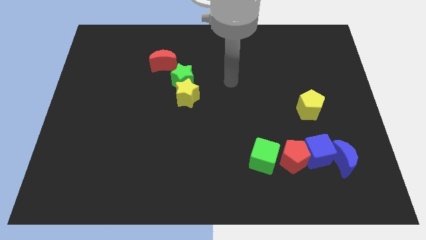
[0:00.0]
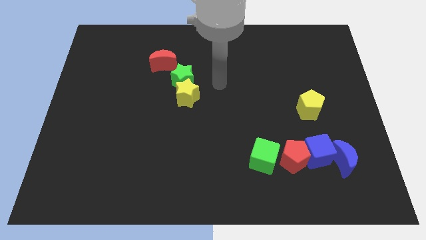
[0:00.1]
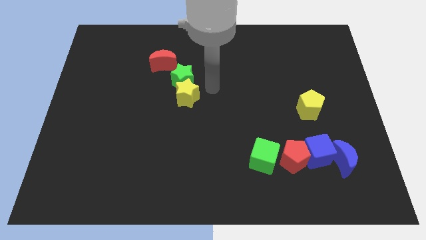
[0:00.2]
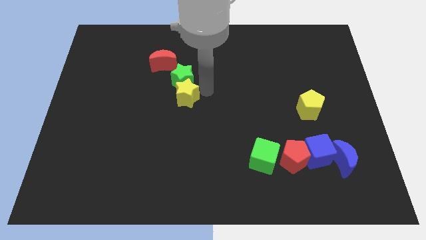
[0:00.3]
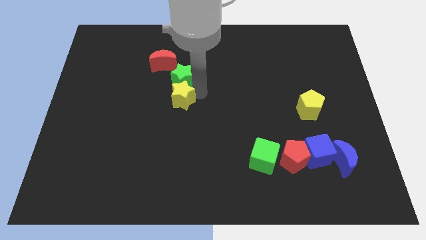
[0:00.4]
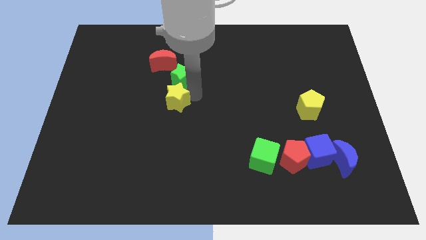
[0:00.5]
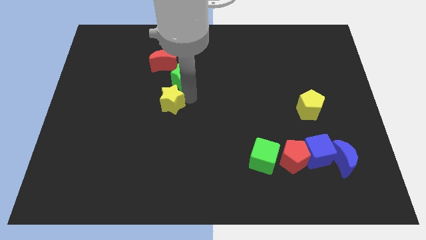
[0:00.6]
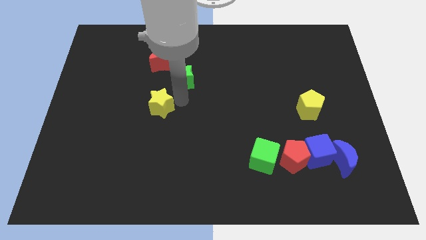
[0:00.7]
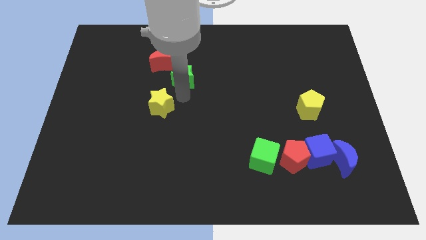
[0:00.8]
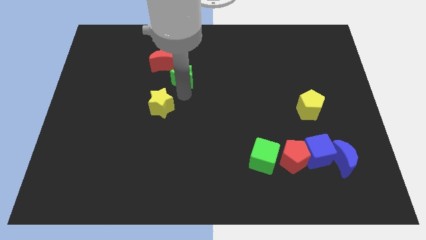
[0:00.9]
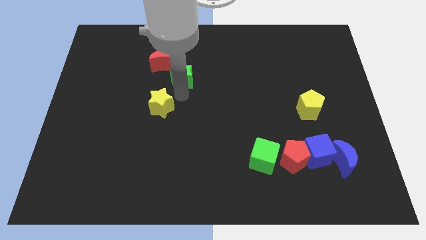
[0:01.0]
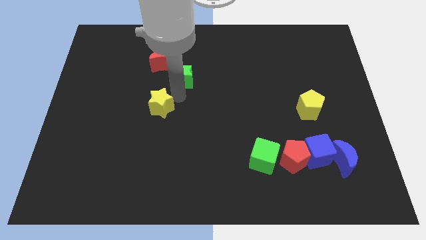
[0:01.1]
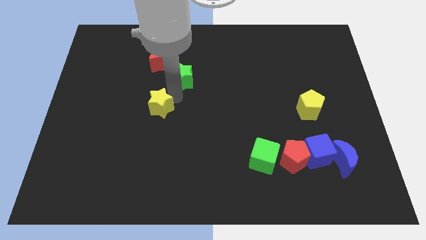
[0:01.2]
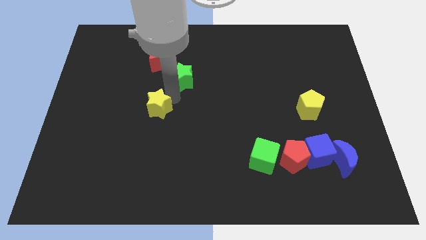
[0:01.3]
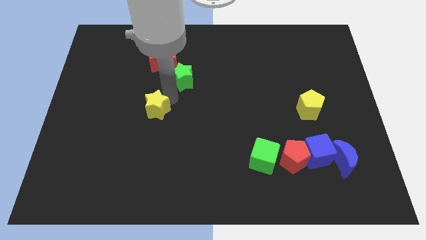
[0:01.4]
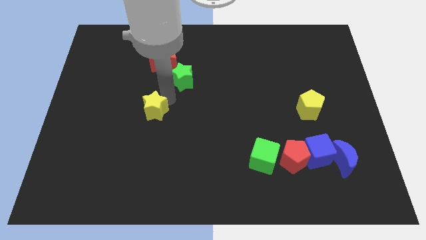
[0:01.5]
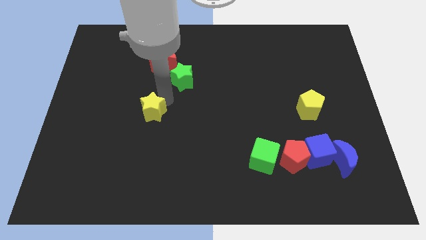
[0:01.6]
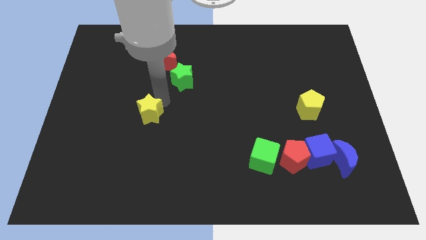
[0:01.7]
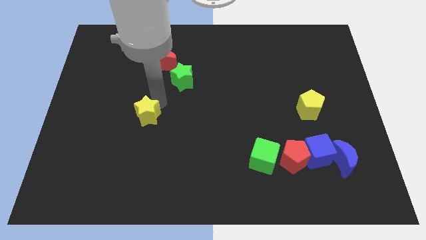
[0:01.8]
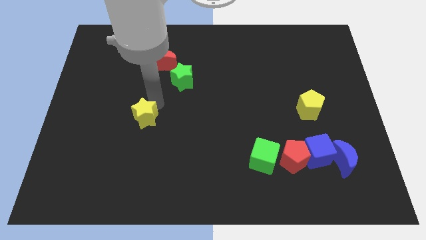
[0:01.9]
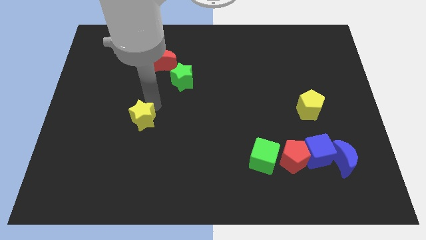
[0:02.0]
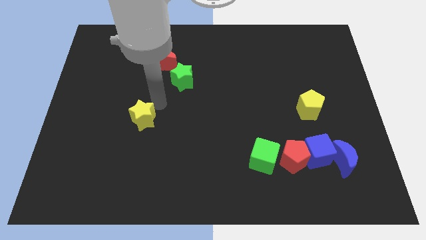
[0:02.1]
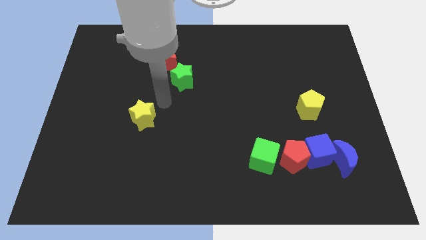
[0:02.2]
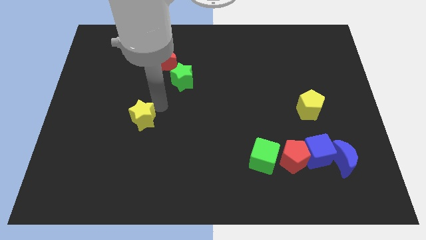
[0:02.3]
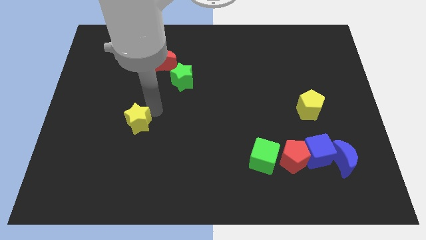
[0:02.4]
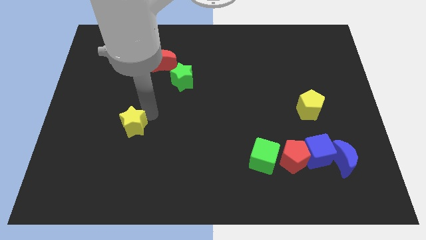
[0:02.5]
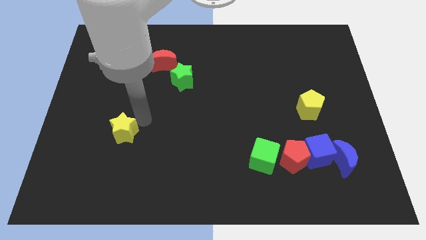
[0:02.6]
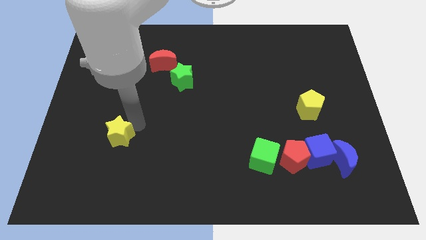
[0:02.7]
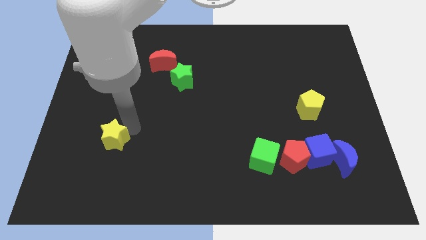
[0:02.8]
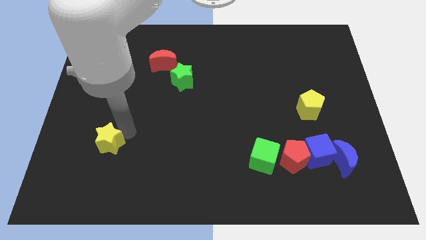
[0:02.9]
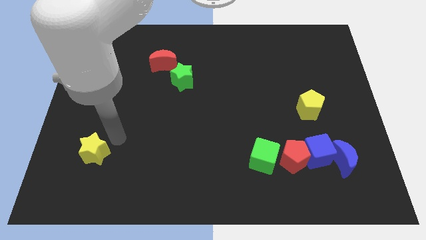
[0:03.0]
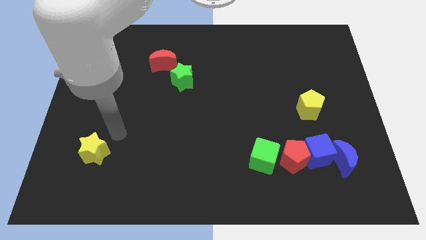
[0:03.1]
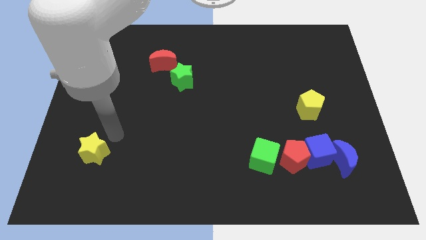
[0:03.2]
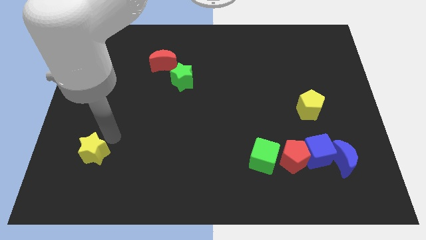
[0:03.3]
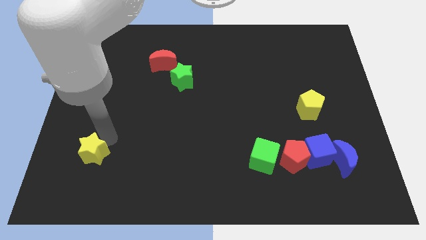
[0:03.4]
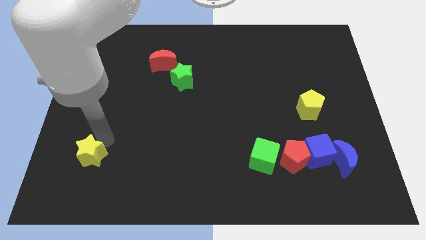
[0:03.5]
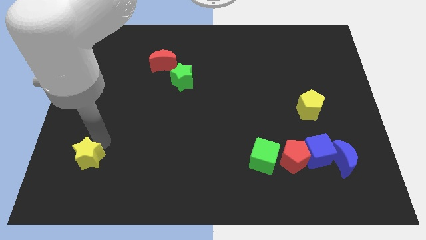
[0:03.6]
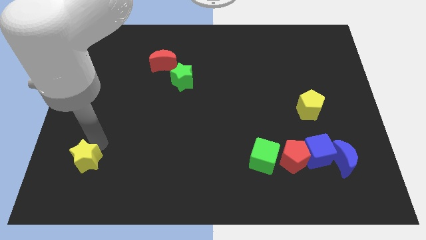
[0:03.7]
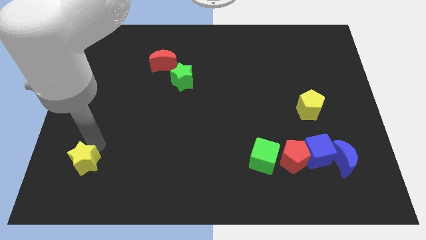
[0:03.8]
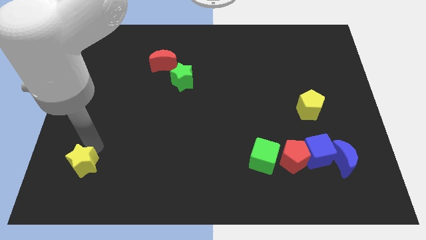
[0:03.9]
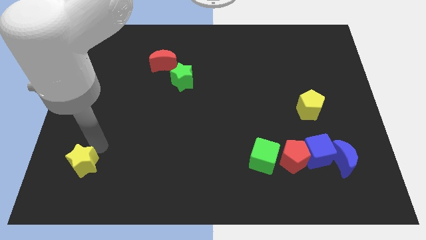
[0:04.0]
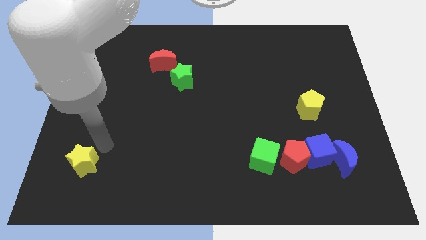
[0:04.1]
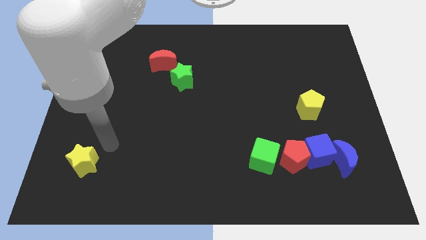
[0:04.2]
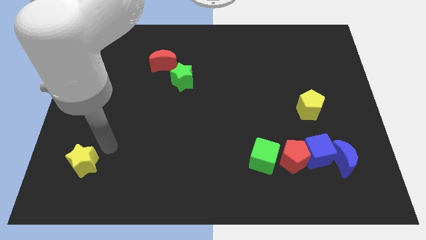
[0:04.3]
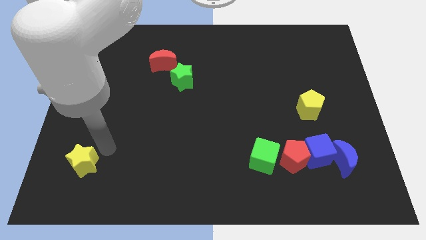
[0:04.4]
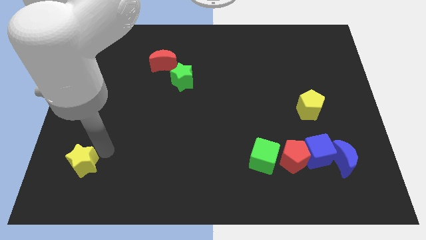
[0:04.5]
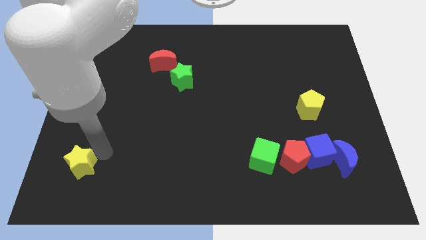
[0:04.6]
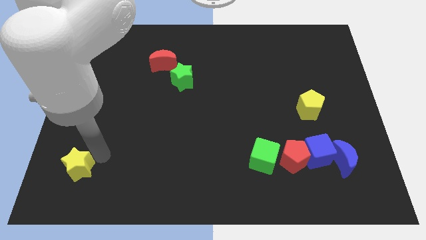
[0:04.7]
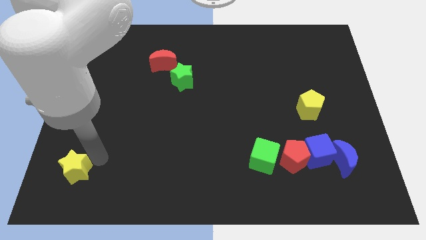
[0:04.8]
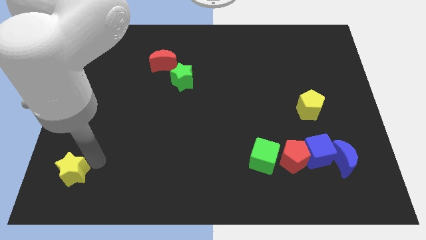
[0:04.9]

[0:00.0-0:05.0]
slide the yellow star to the lower left corner

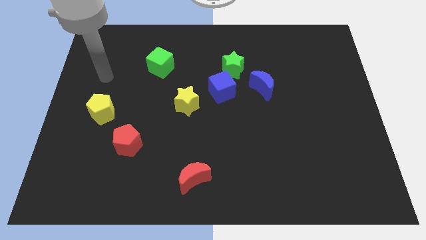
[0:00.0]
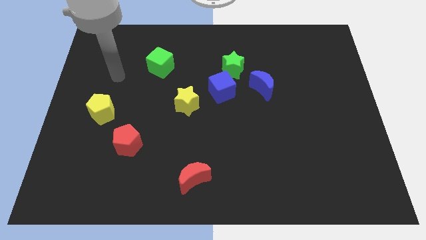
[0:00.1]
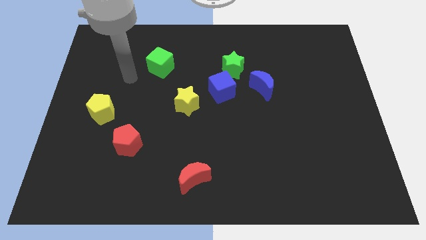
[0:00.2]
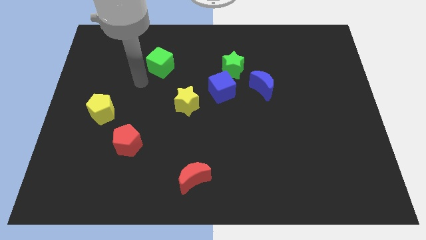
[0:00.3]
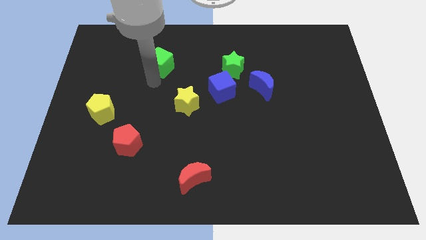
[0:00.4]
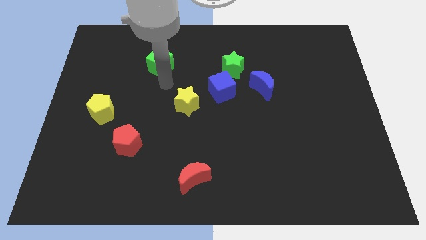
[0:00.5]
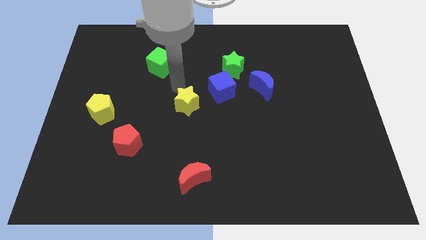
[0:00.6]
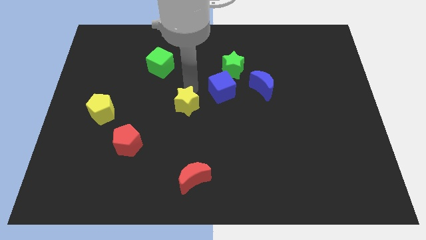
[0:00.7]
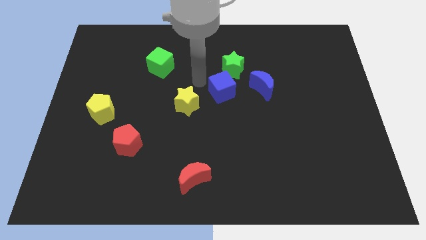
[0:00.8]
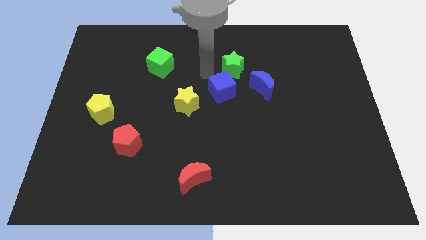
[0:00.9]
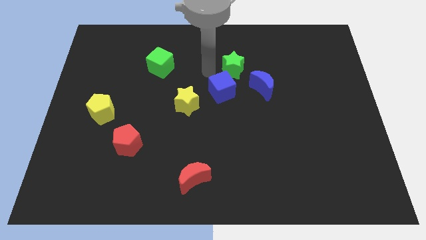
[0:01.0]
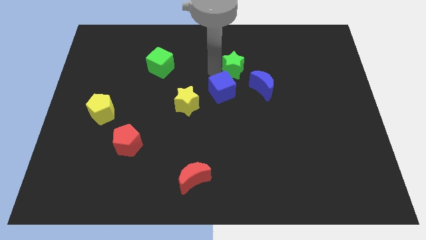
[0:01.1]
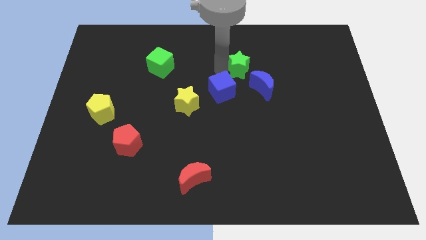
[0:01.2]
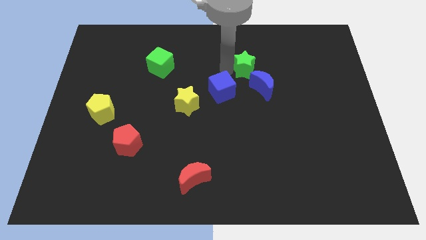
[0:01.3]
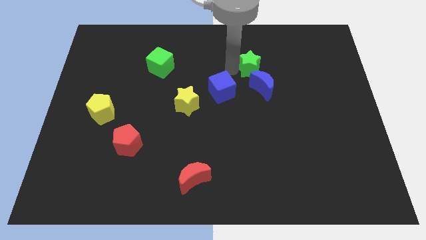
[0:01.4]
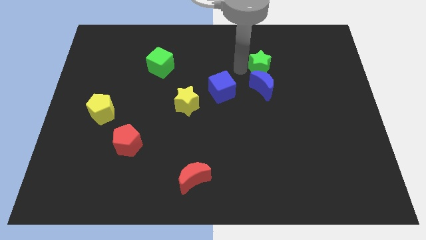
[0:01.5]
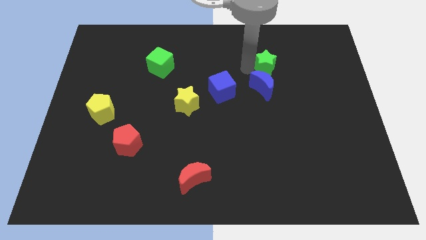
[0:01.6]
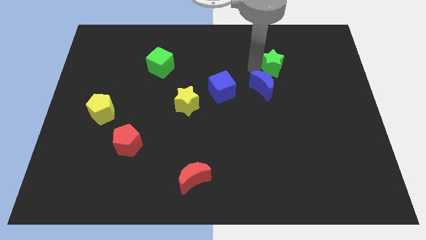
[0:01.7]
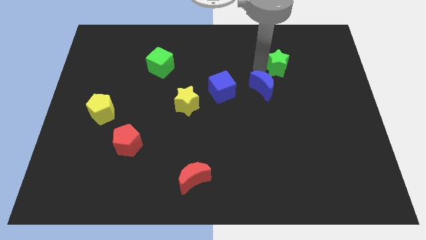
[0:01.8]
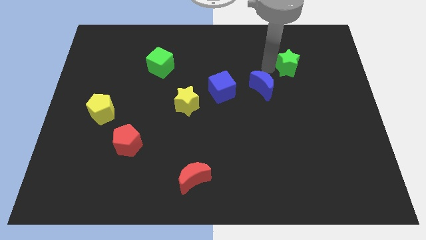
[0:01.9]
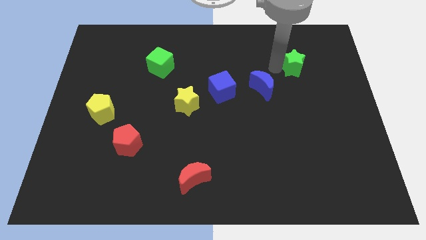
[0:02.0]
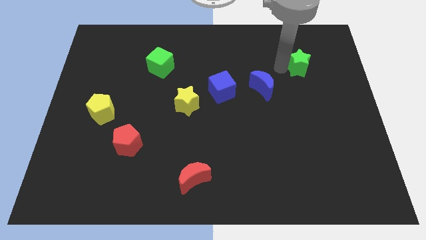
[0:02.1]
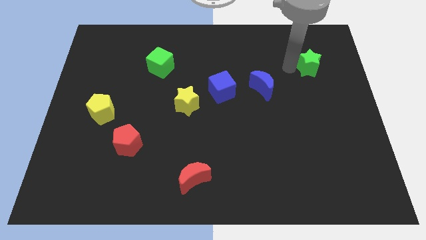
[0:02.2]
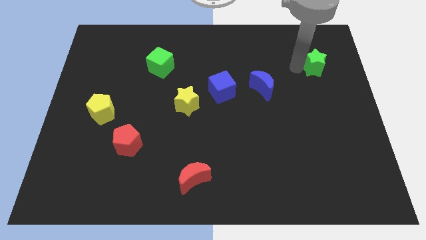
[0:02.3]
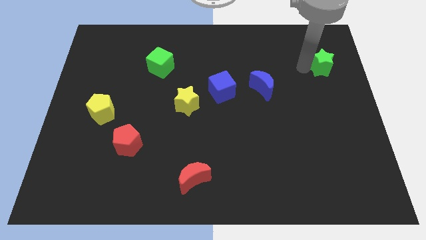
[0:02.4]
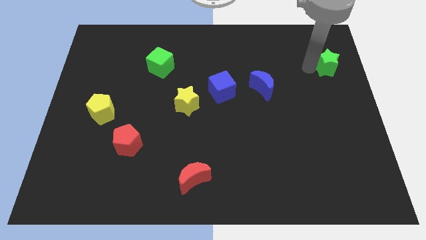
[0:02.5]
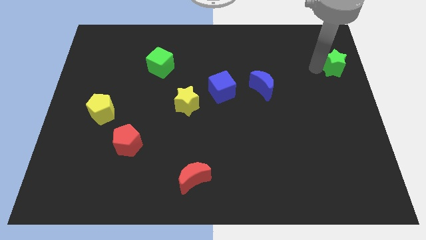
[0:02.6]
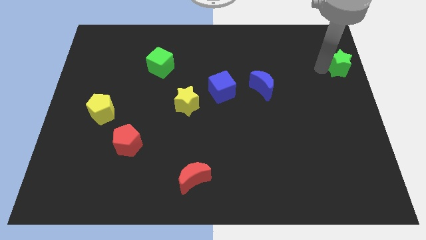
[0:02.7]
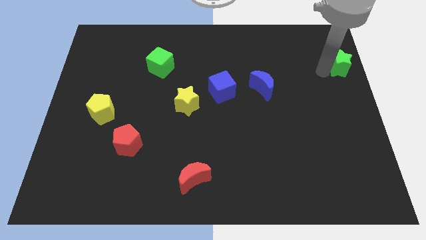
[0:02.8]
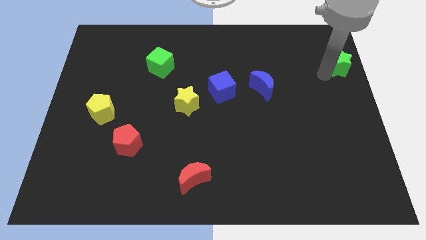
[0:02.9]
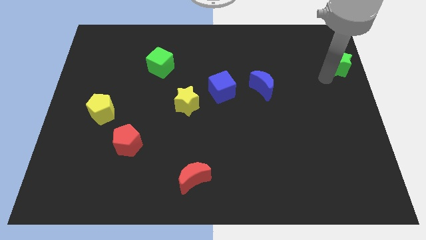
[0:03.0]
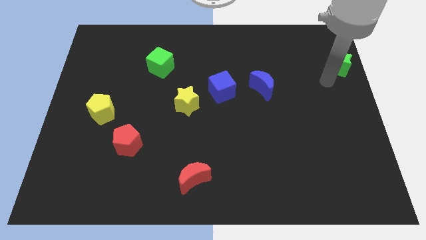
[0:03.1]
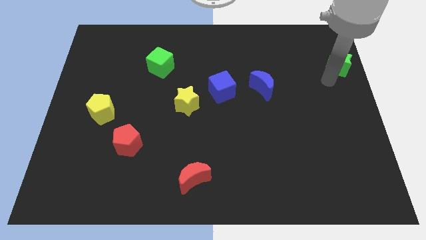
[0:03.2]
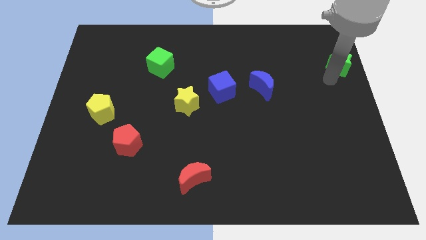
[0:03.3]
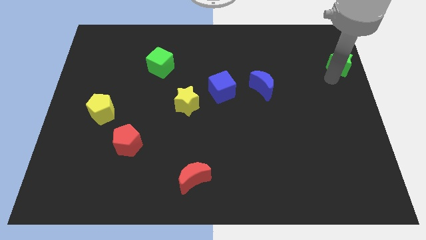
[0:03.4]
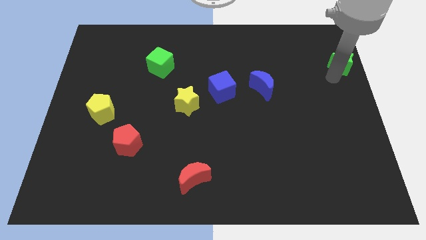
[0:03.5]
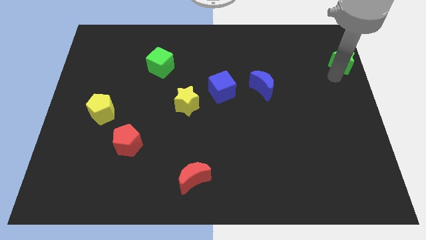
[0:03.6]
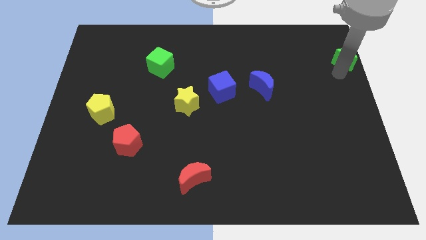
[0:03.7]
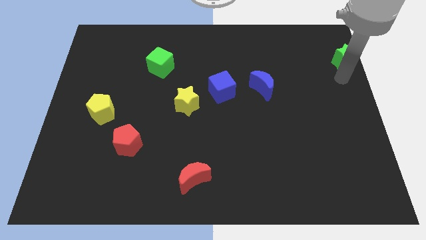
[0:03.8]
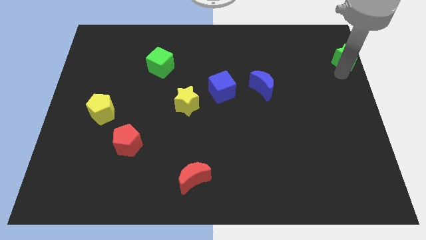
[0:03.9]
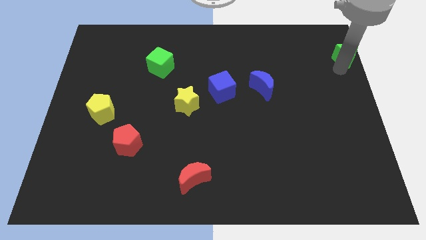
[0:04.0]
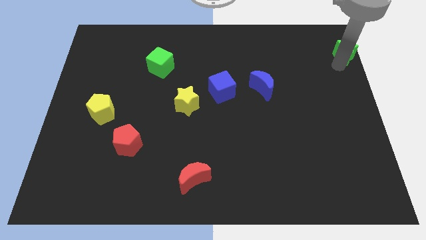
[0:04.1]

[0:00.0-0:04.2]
move the green star to the top right of the board
